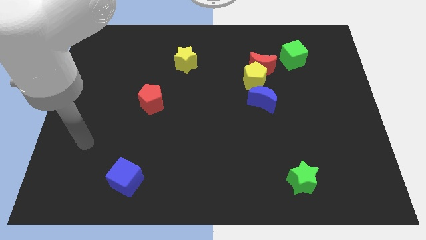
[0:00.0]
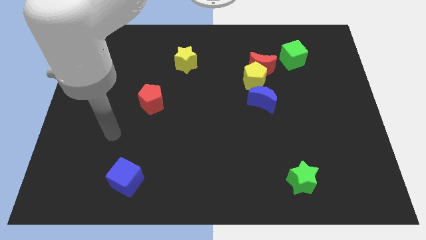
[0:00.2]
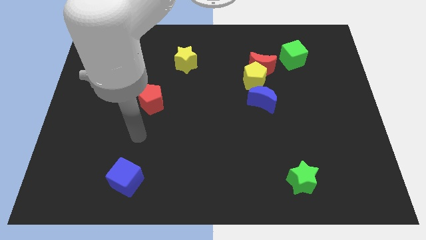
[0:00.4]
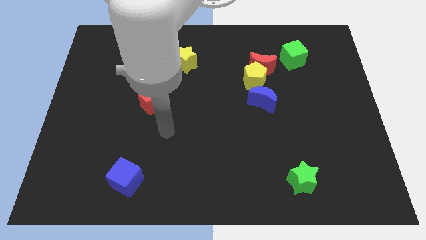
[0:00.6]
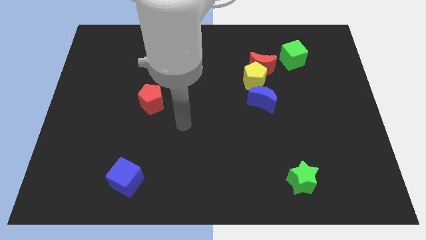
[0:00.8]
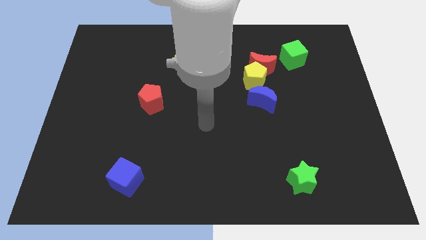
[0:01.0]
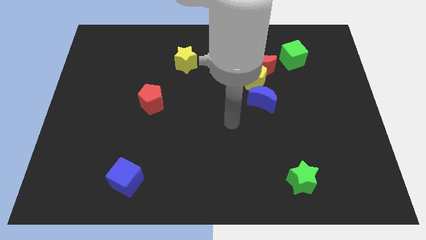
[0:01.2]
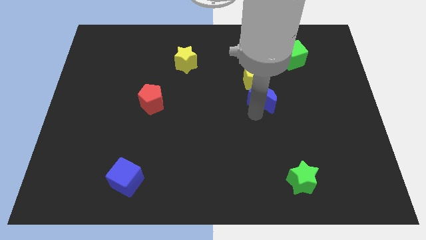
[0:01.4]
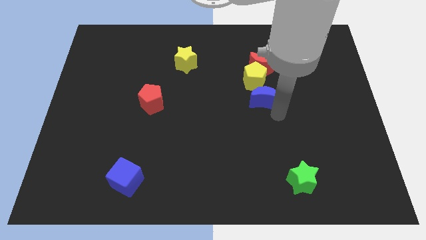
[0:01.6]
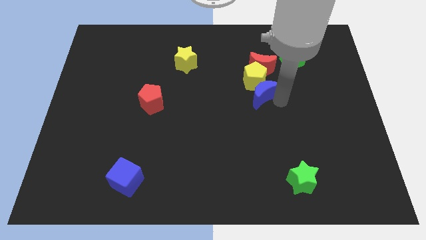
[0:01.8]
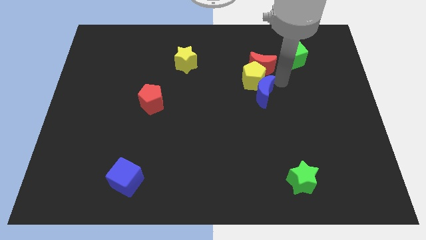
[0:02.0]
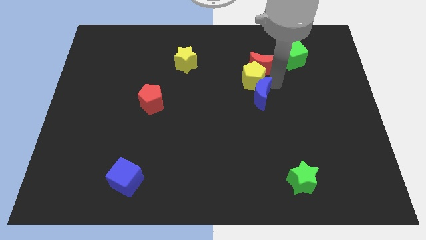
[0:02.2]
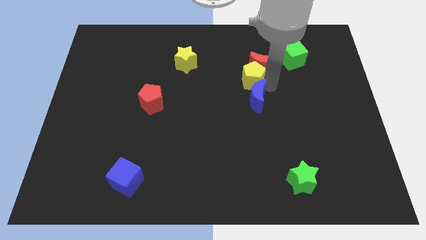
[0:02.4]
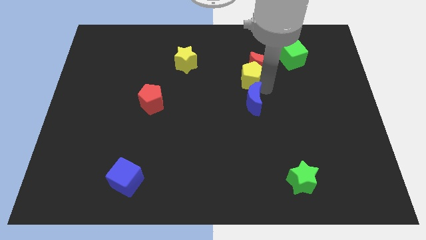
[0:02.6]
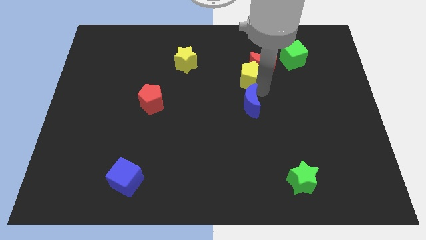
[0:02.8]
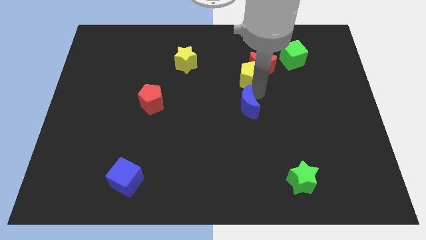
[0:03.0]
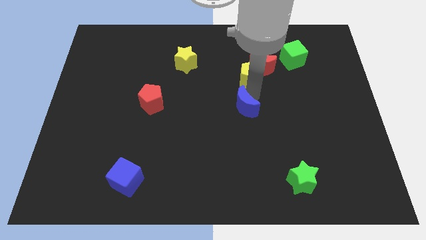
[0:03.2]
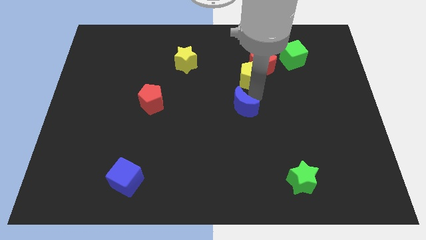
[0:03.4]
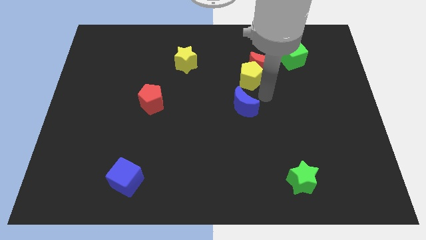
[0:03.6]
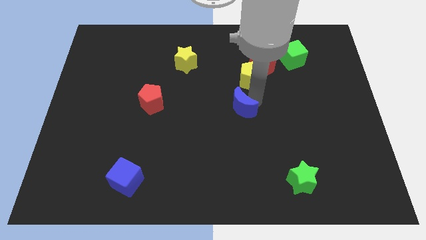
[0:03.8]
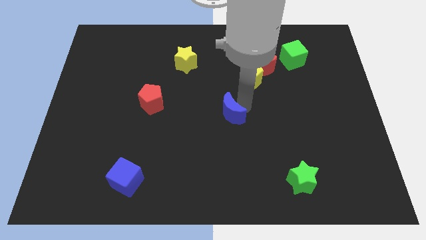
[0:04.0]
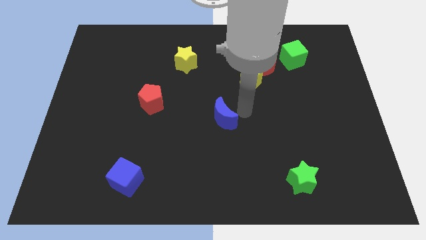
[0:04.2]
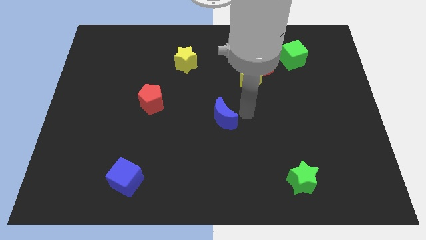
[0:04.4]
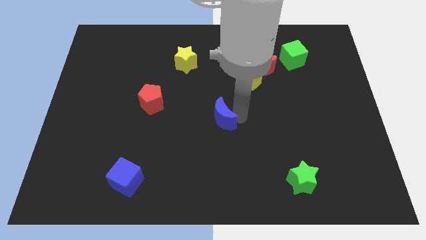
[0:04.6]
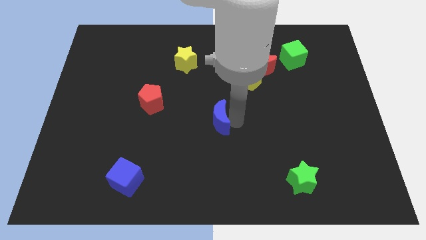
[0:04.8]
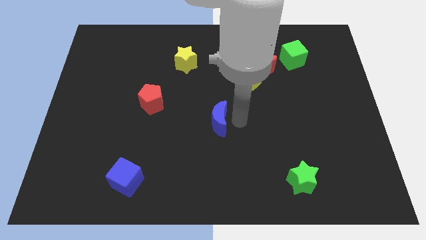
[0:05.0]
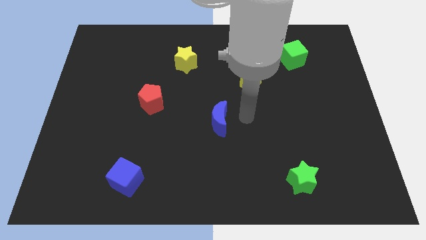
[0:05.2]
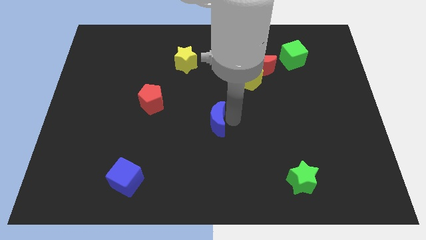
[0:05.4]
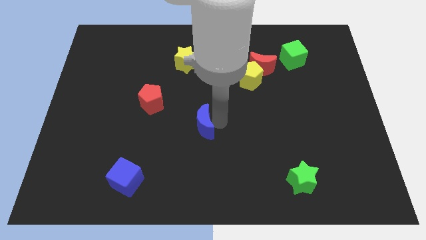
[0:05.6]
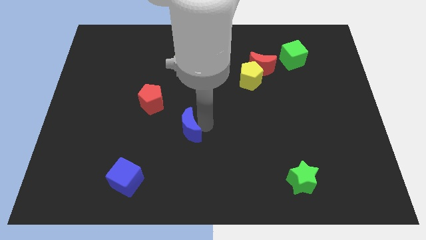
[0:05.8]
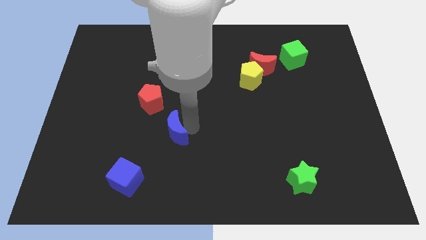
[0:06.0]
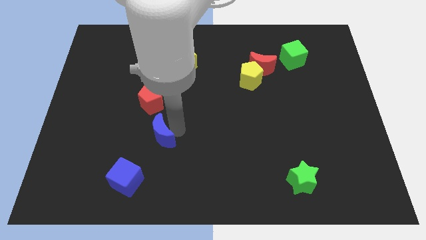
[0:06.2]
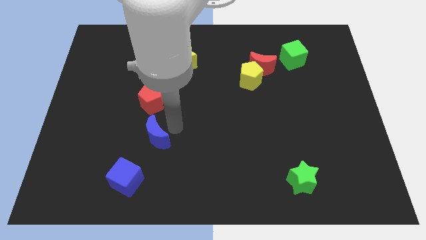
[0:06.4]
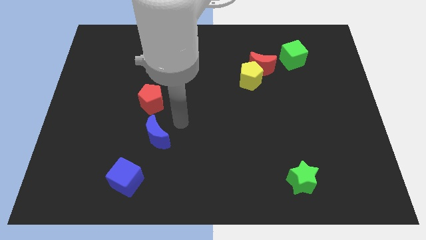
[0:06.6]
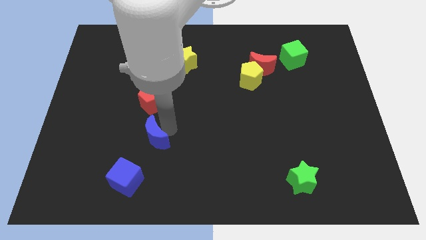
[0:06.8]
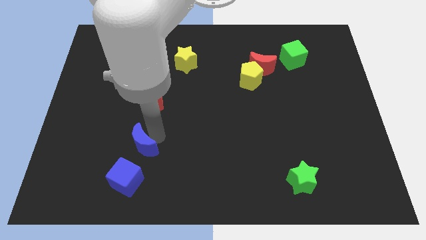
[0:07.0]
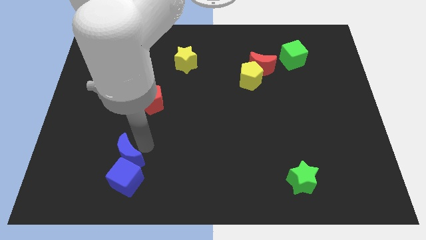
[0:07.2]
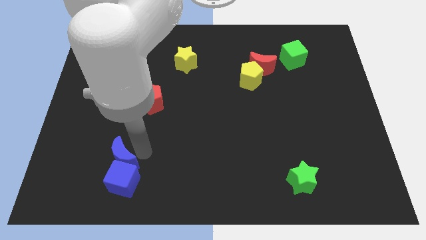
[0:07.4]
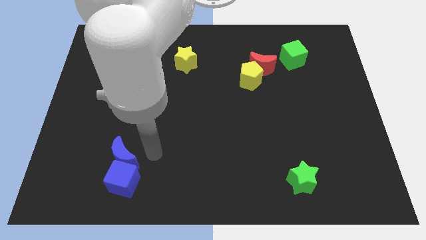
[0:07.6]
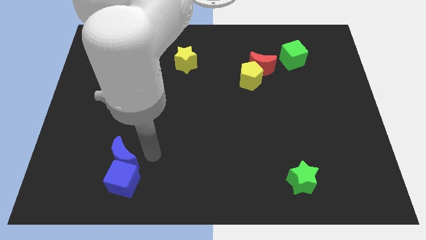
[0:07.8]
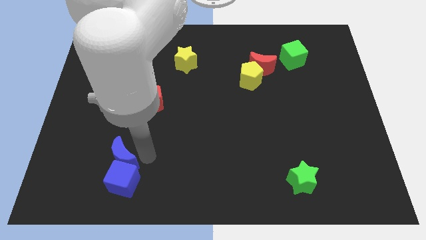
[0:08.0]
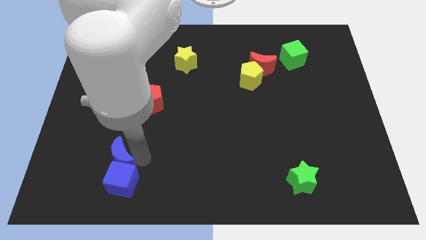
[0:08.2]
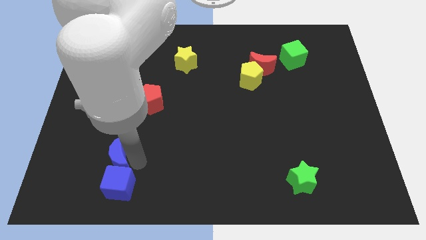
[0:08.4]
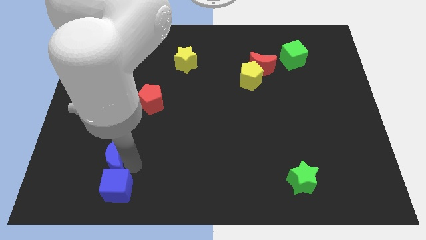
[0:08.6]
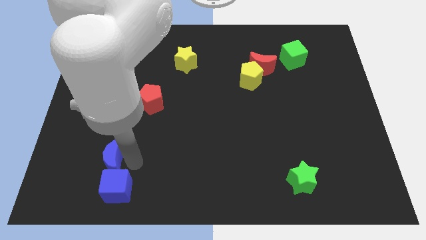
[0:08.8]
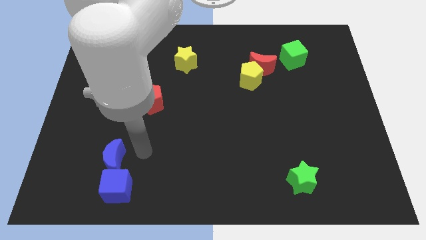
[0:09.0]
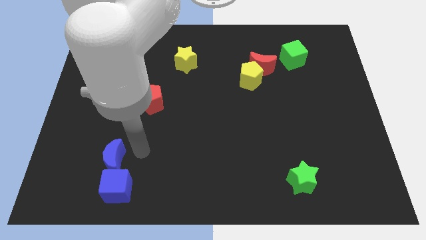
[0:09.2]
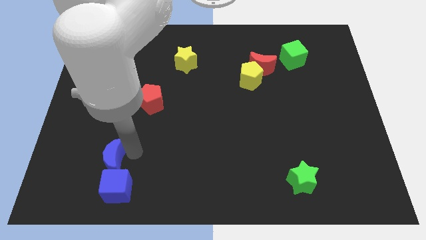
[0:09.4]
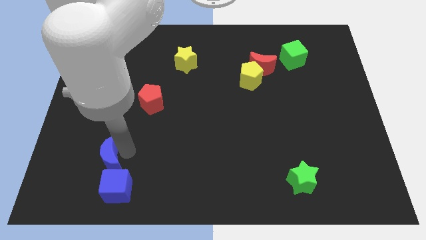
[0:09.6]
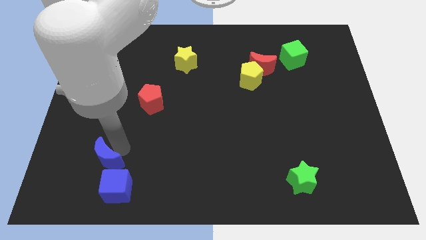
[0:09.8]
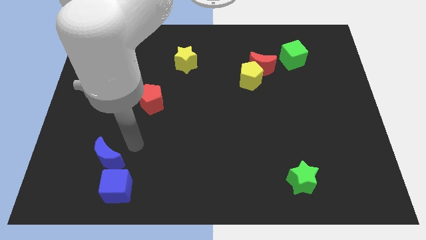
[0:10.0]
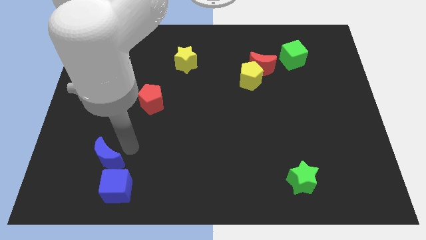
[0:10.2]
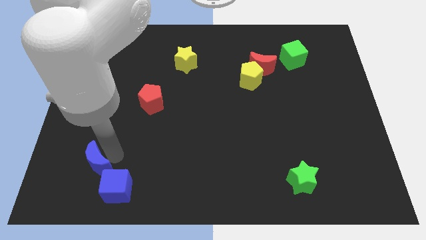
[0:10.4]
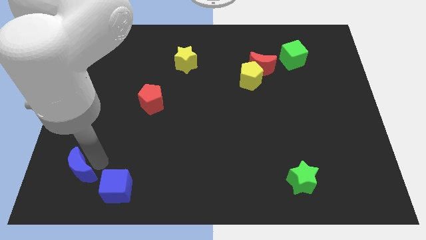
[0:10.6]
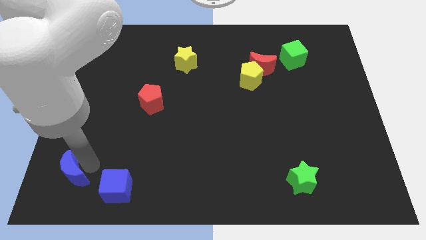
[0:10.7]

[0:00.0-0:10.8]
slide the blue moon to the bottom left of the board

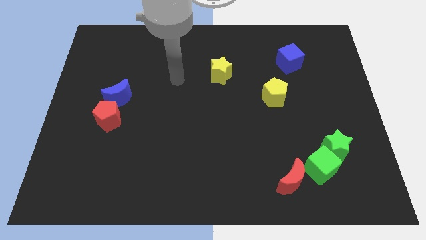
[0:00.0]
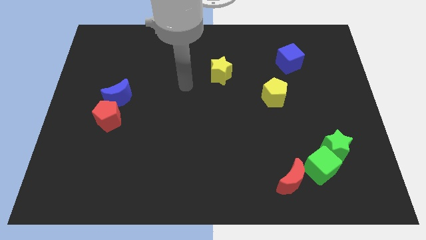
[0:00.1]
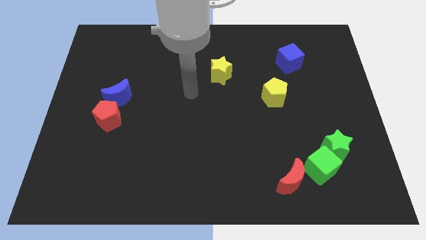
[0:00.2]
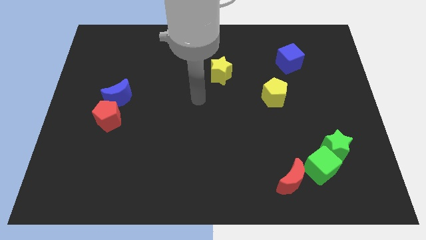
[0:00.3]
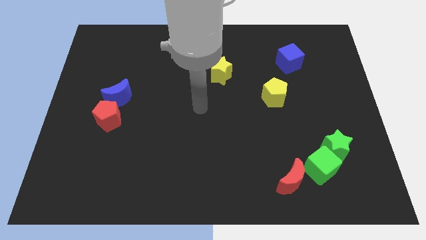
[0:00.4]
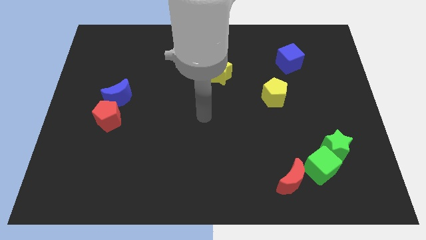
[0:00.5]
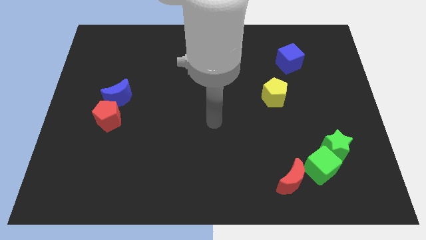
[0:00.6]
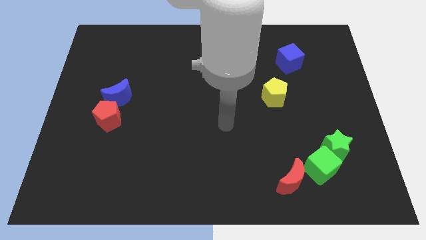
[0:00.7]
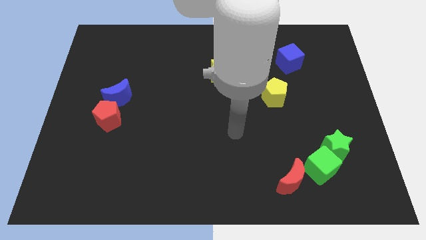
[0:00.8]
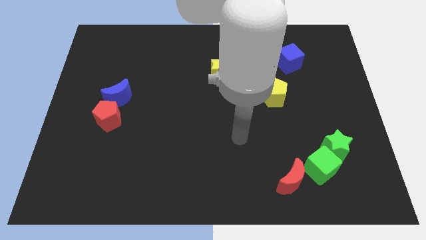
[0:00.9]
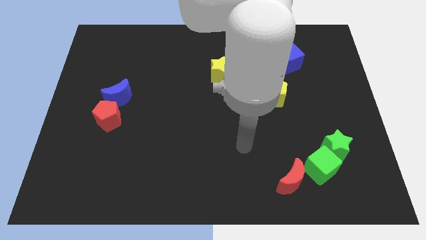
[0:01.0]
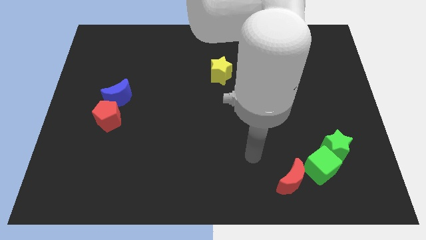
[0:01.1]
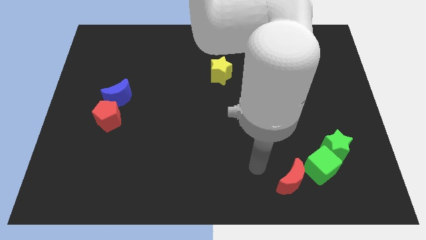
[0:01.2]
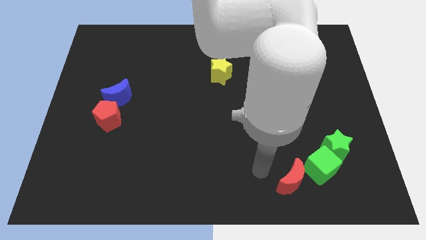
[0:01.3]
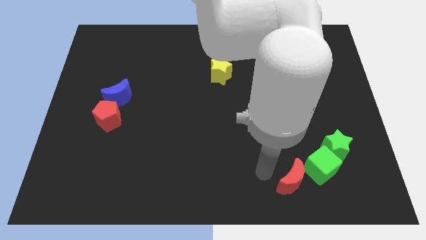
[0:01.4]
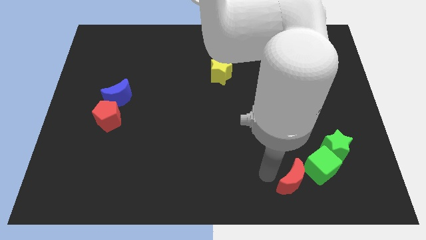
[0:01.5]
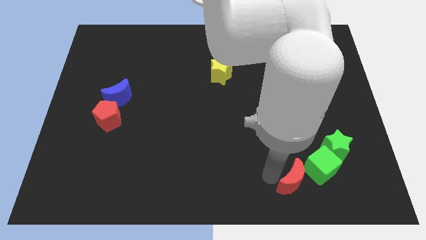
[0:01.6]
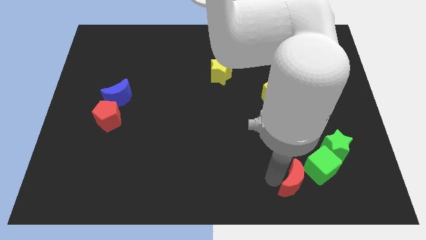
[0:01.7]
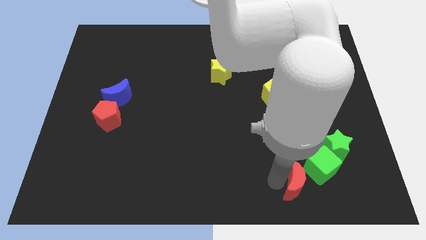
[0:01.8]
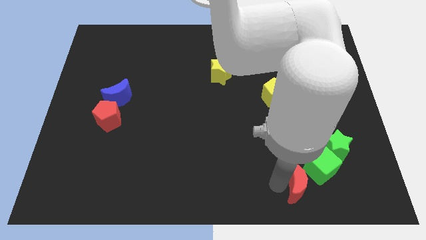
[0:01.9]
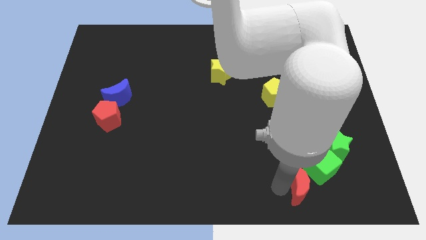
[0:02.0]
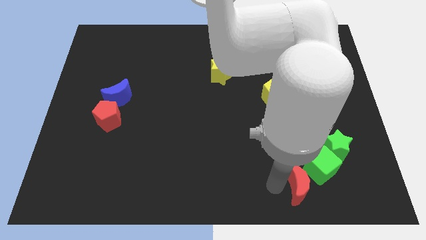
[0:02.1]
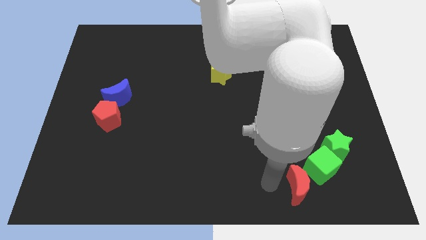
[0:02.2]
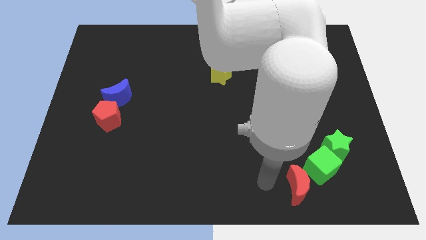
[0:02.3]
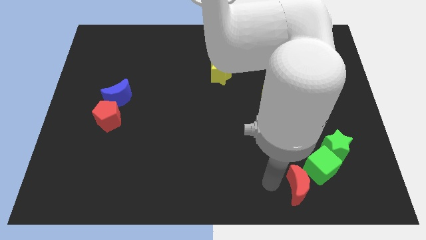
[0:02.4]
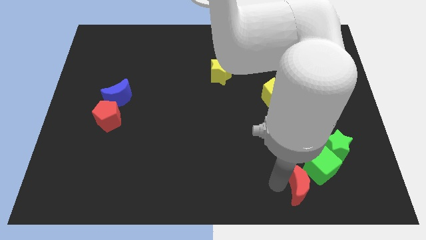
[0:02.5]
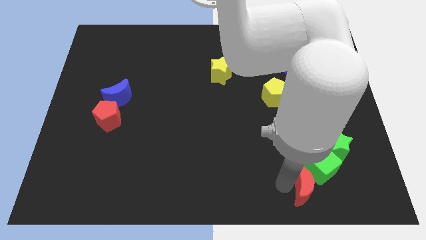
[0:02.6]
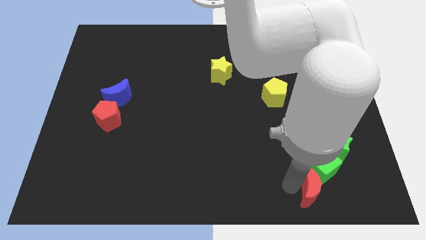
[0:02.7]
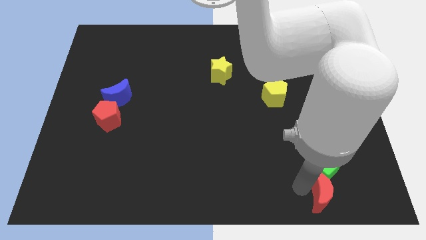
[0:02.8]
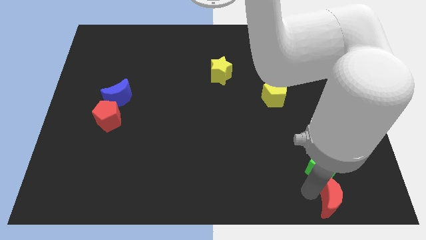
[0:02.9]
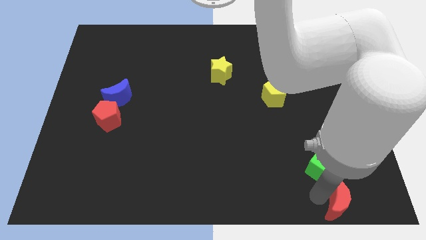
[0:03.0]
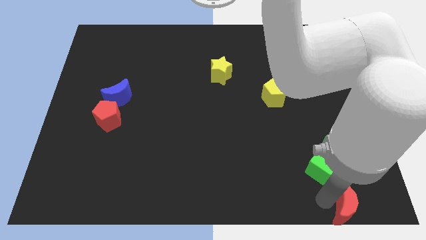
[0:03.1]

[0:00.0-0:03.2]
move the red moon to the bottom right of the board
